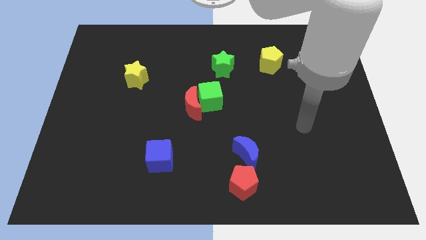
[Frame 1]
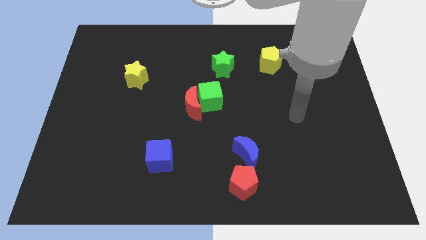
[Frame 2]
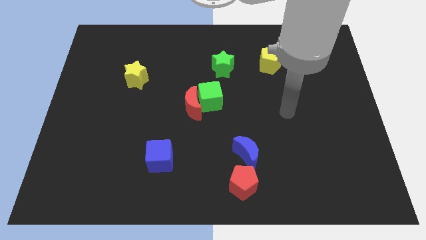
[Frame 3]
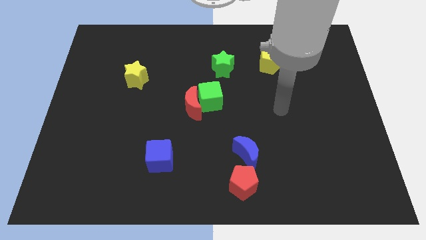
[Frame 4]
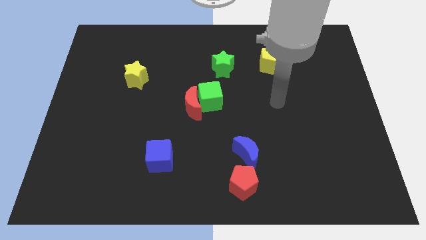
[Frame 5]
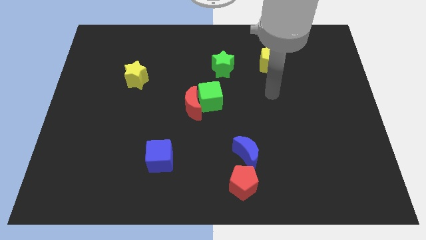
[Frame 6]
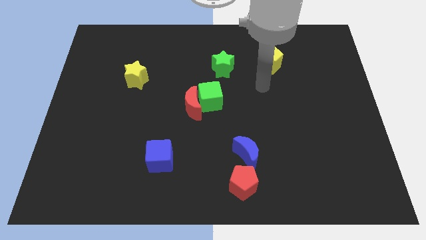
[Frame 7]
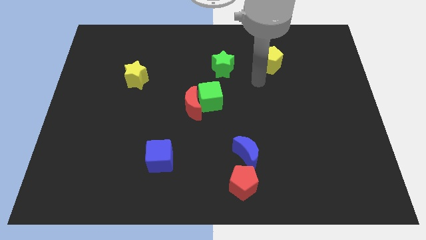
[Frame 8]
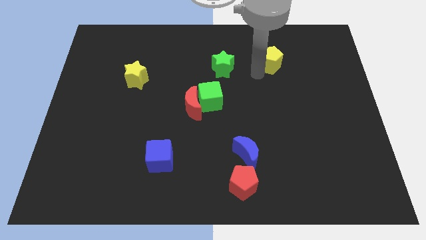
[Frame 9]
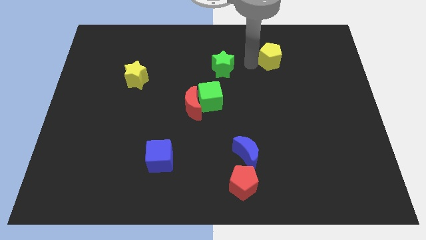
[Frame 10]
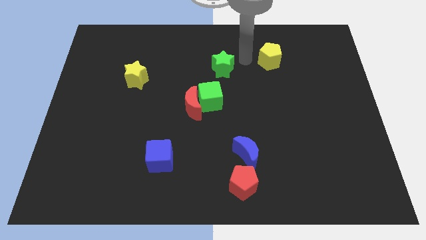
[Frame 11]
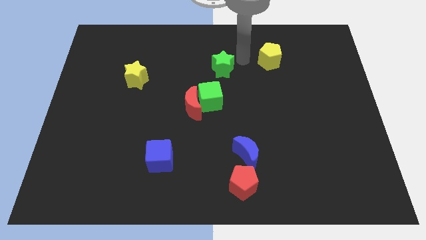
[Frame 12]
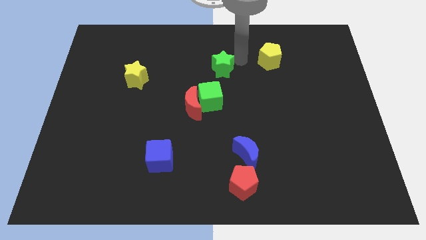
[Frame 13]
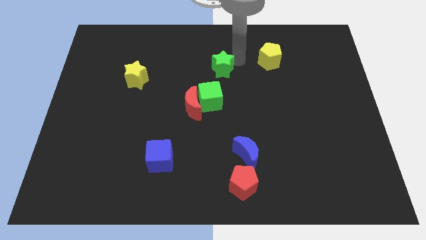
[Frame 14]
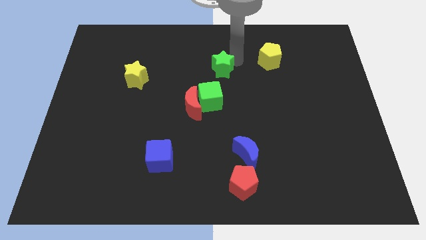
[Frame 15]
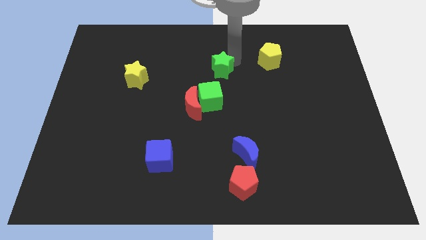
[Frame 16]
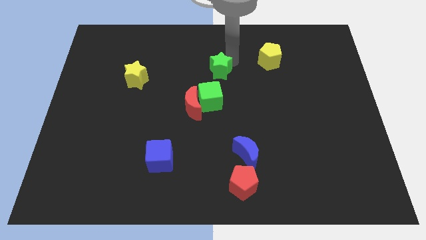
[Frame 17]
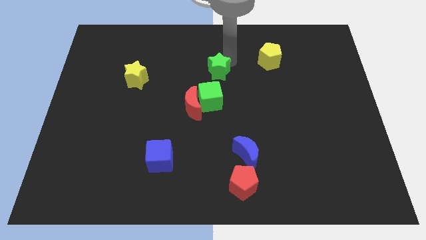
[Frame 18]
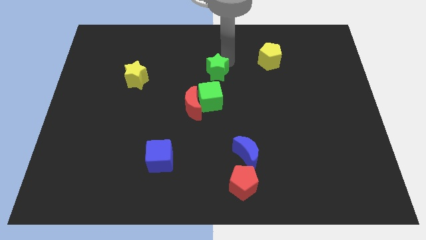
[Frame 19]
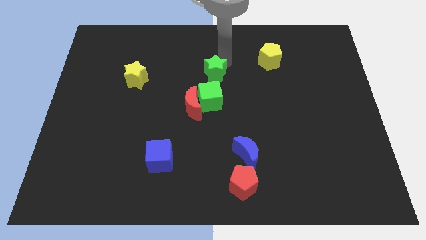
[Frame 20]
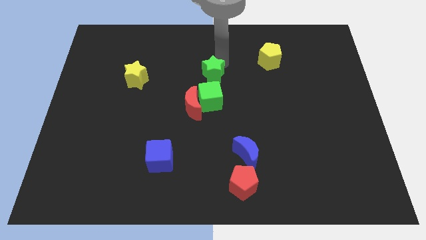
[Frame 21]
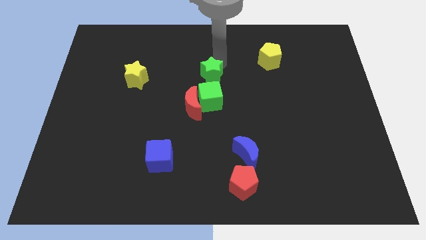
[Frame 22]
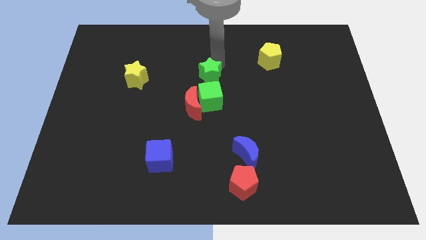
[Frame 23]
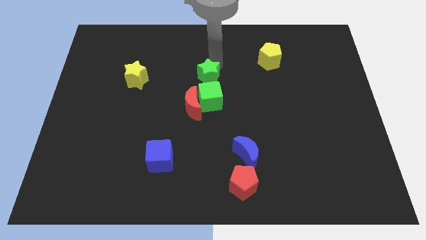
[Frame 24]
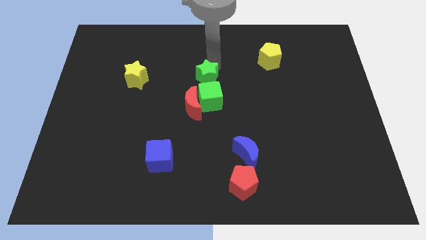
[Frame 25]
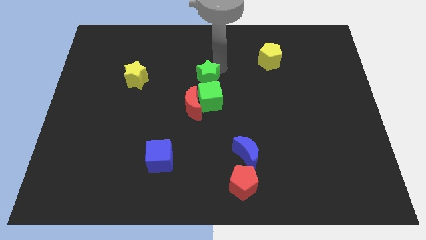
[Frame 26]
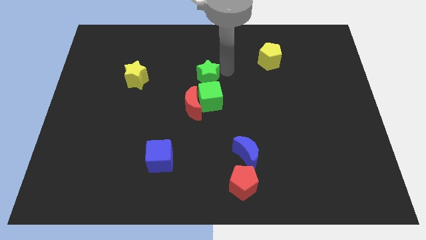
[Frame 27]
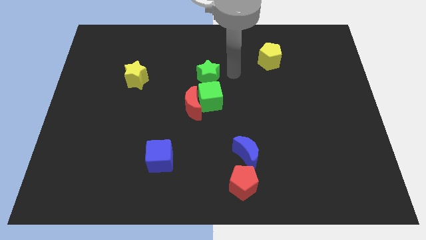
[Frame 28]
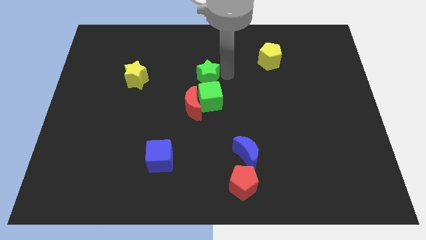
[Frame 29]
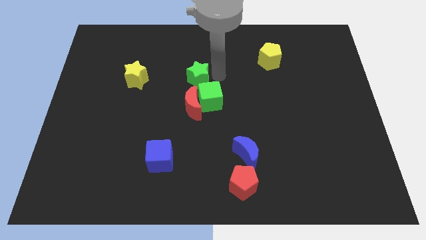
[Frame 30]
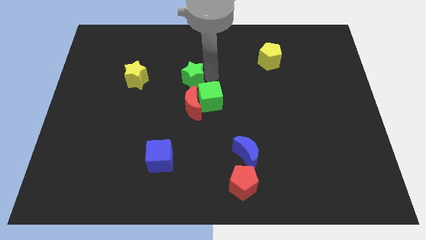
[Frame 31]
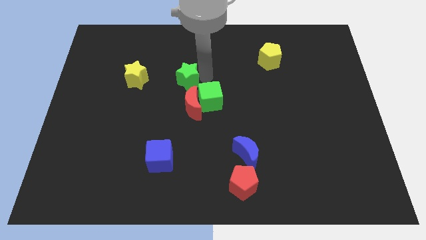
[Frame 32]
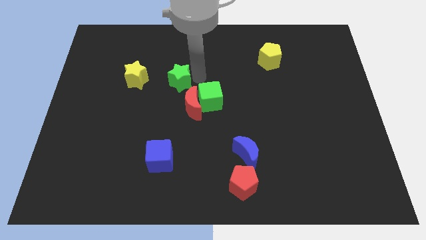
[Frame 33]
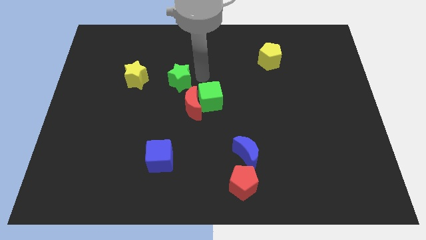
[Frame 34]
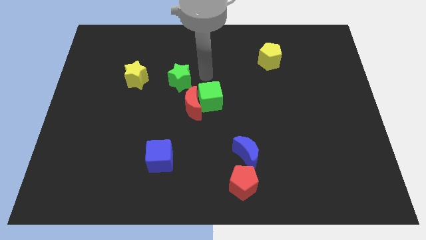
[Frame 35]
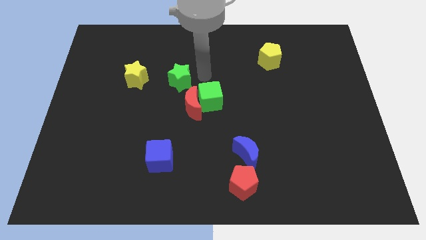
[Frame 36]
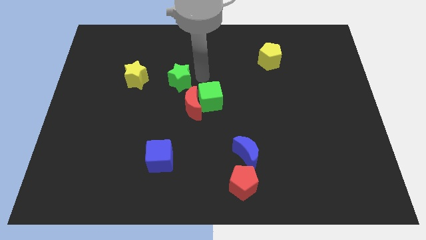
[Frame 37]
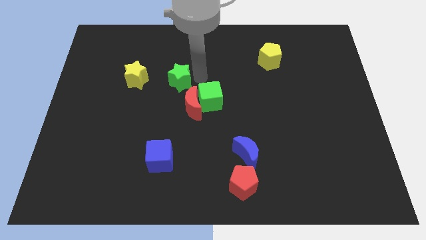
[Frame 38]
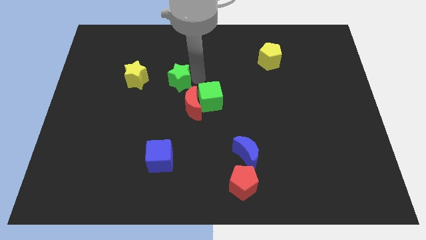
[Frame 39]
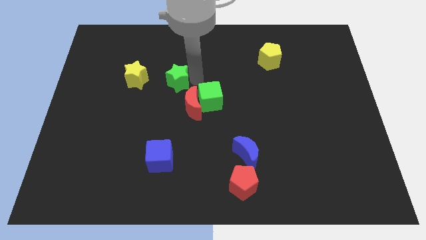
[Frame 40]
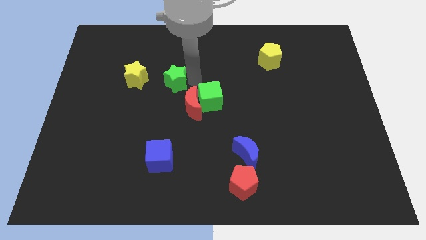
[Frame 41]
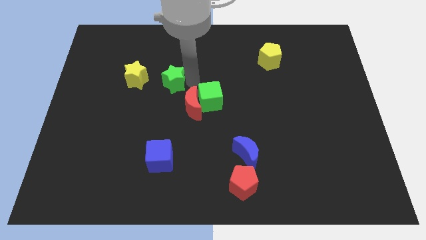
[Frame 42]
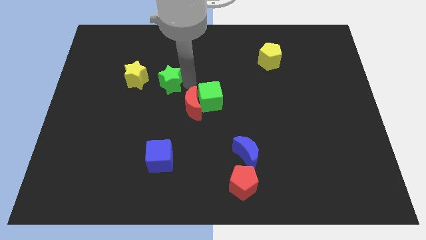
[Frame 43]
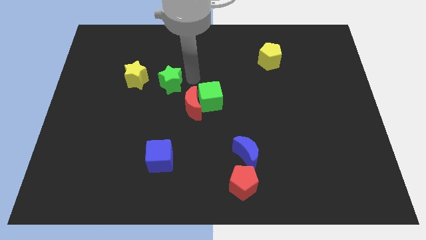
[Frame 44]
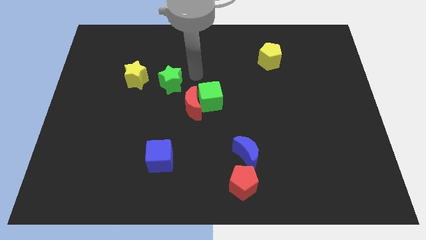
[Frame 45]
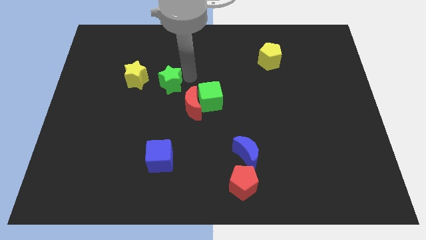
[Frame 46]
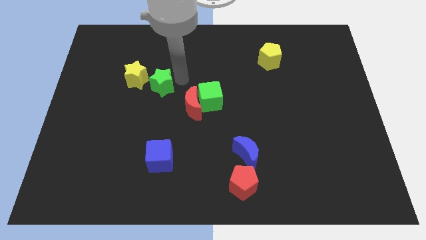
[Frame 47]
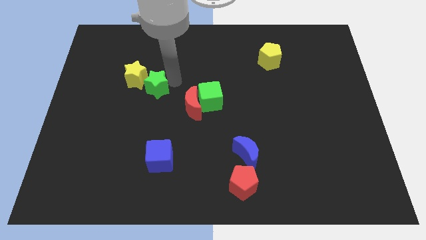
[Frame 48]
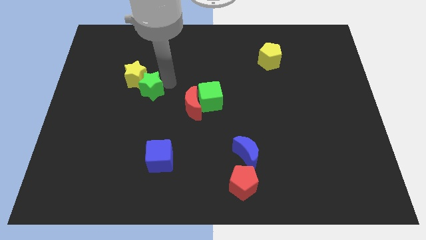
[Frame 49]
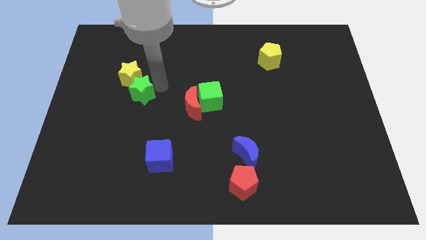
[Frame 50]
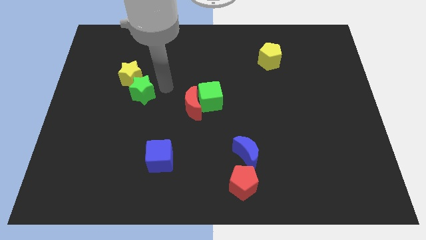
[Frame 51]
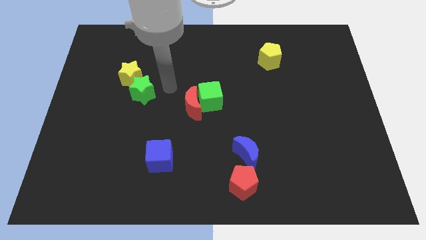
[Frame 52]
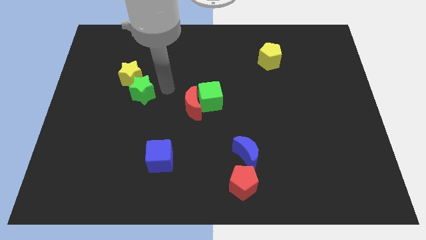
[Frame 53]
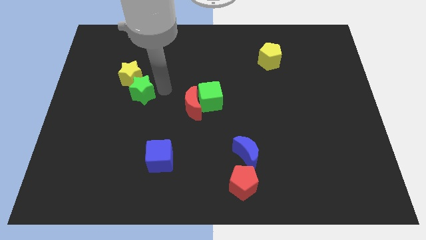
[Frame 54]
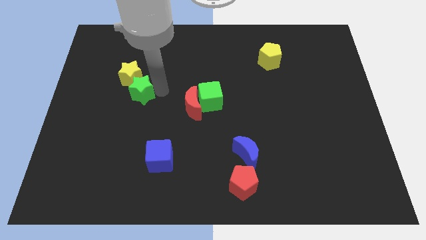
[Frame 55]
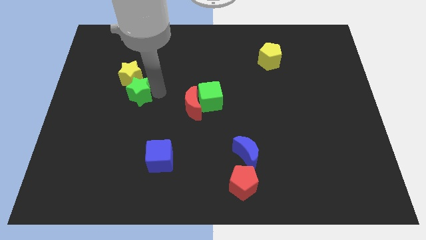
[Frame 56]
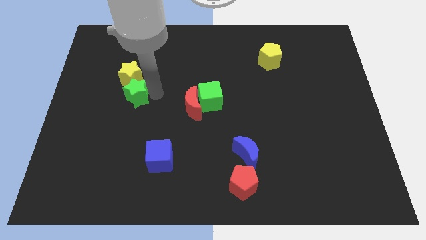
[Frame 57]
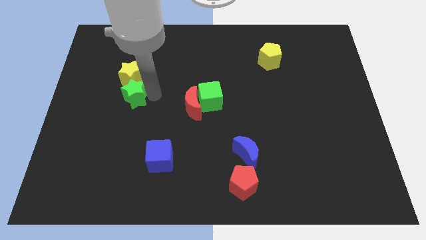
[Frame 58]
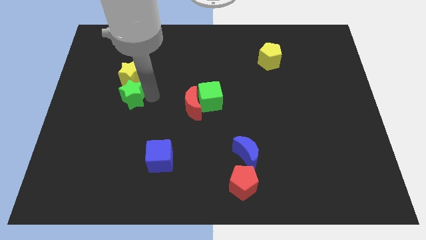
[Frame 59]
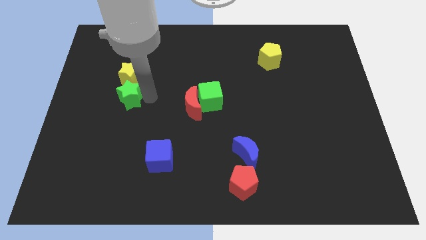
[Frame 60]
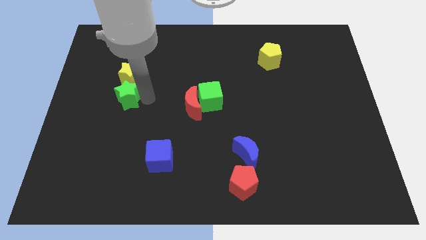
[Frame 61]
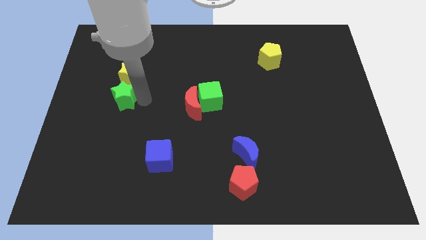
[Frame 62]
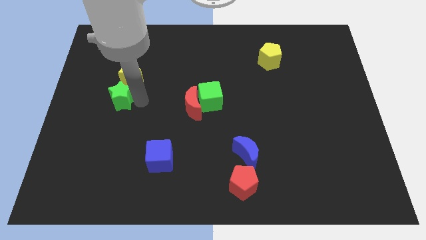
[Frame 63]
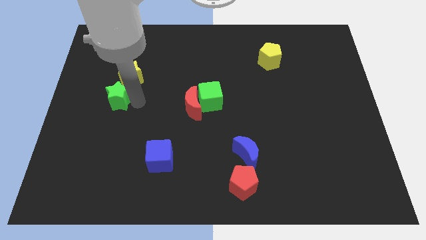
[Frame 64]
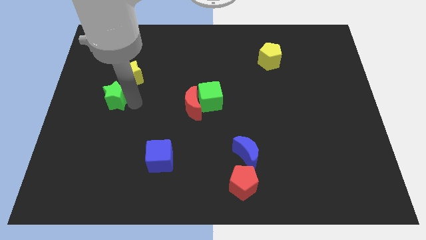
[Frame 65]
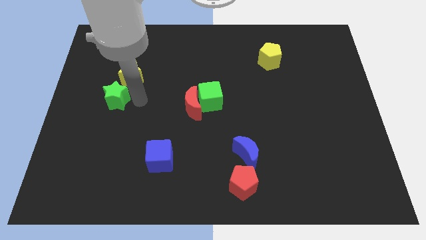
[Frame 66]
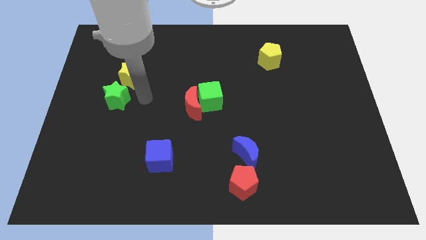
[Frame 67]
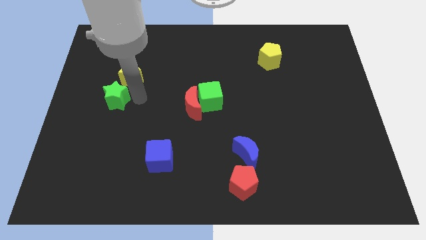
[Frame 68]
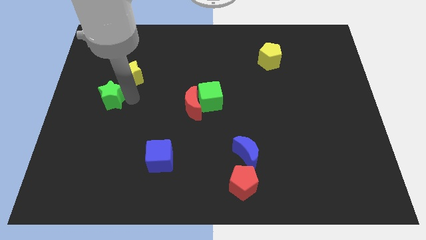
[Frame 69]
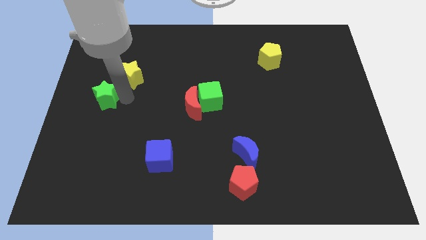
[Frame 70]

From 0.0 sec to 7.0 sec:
push the green star to the left side of the board
